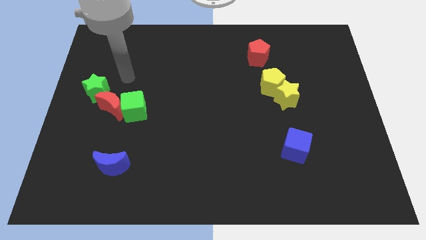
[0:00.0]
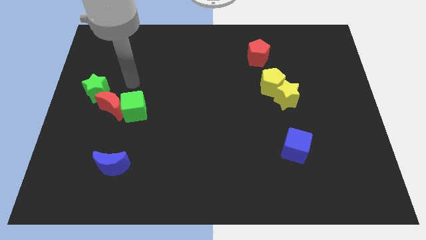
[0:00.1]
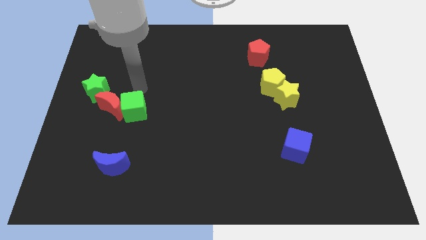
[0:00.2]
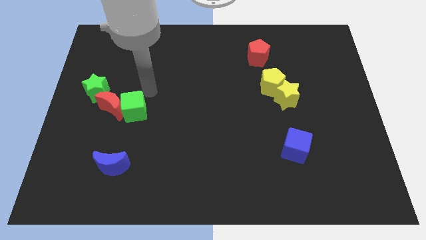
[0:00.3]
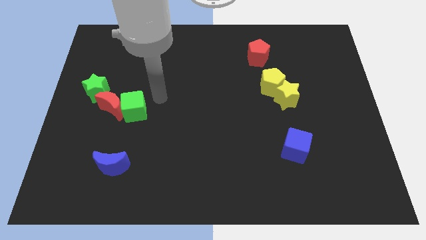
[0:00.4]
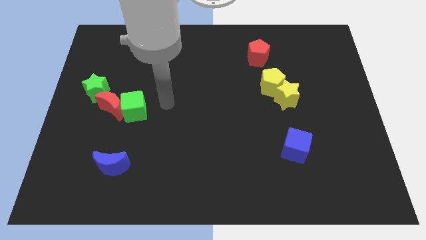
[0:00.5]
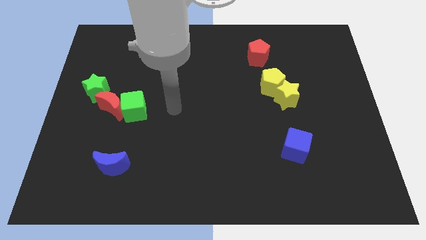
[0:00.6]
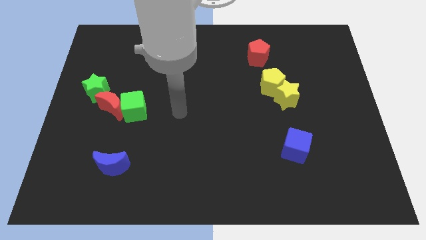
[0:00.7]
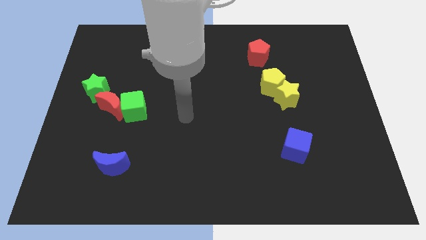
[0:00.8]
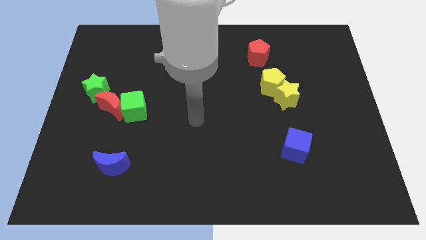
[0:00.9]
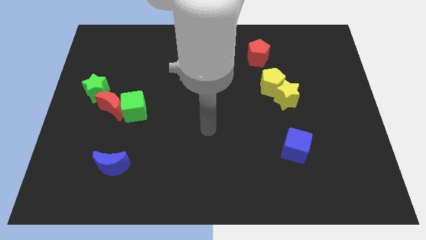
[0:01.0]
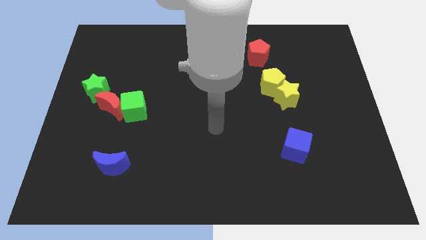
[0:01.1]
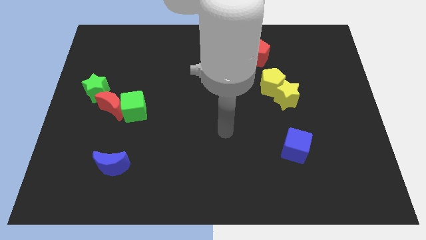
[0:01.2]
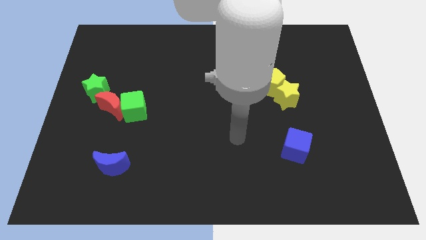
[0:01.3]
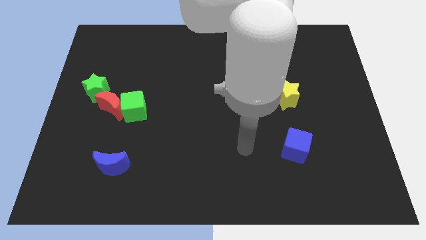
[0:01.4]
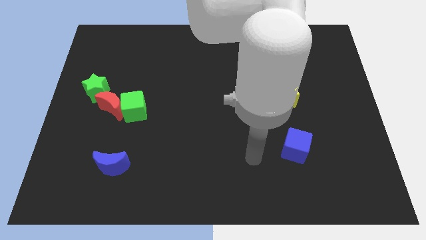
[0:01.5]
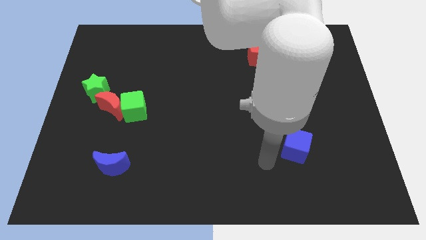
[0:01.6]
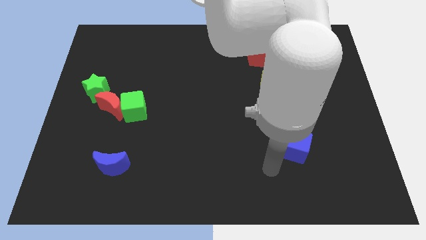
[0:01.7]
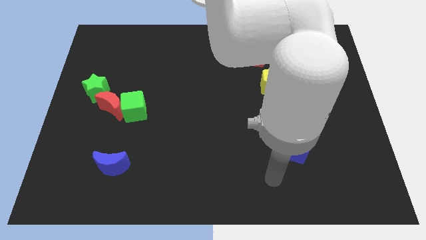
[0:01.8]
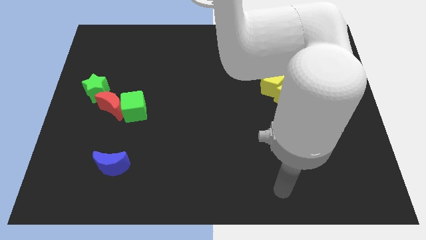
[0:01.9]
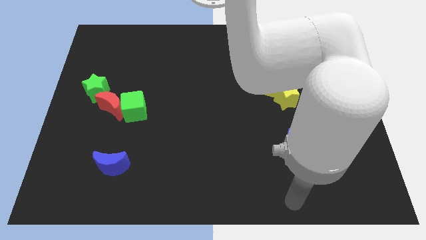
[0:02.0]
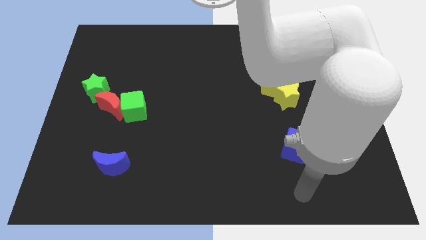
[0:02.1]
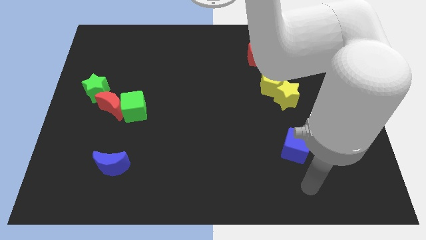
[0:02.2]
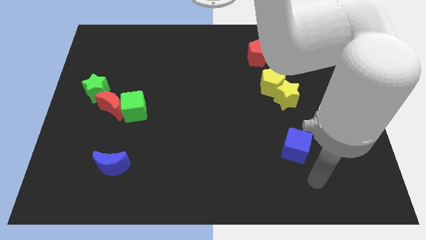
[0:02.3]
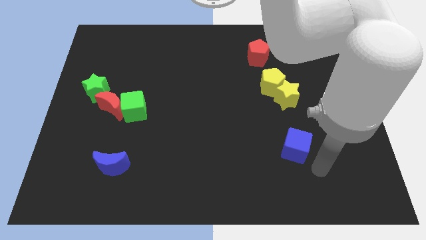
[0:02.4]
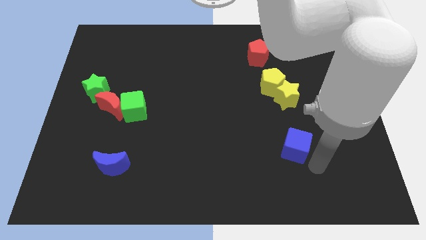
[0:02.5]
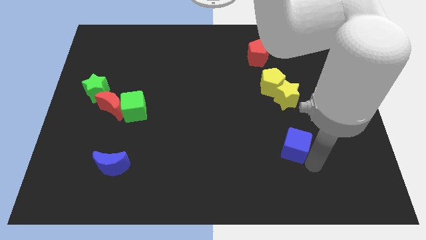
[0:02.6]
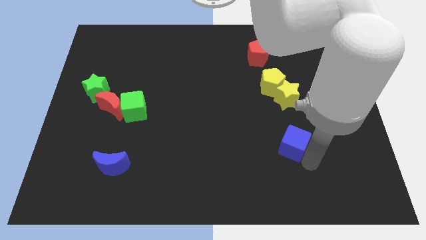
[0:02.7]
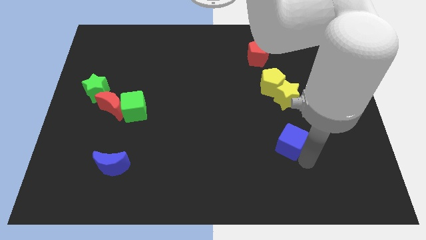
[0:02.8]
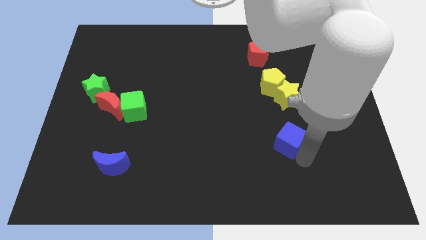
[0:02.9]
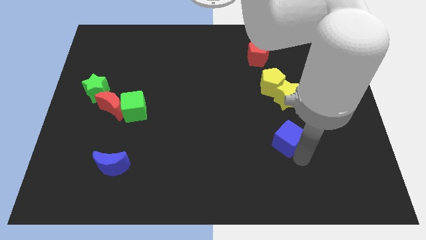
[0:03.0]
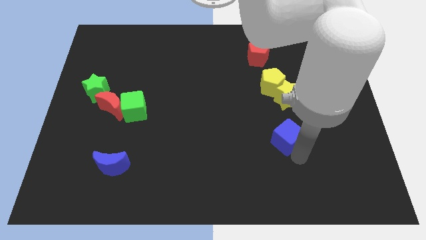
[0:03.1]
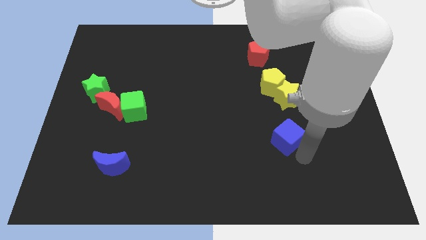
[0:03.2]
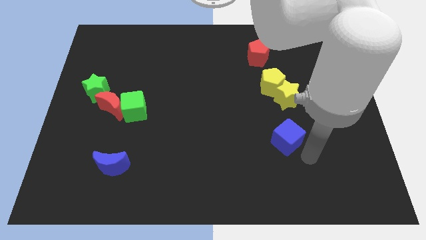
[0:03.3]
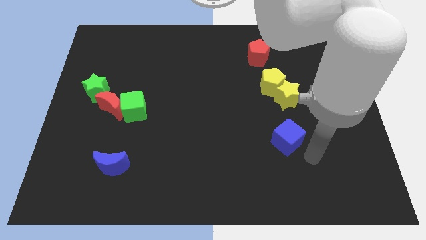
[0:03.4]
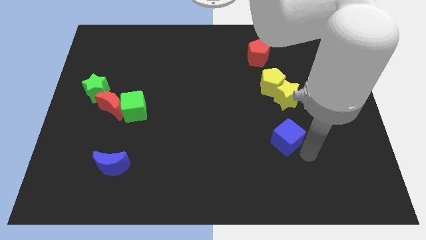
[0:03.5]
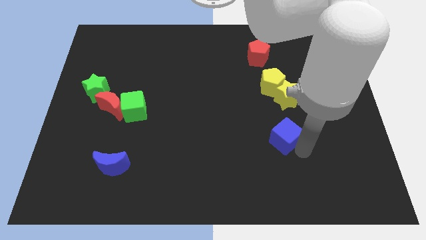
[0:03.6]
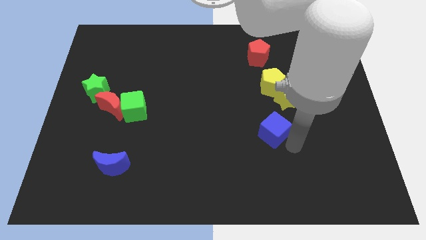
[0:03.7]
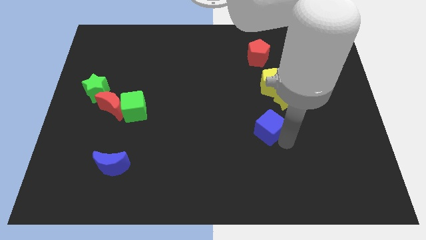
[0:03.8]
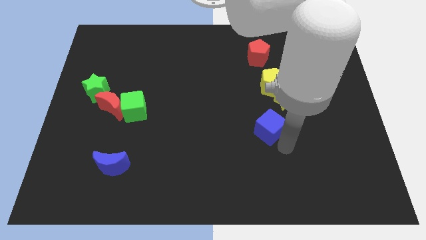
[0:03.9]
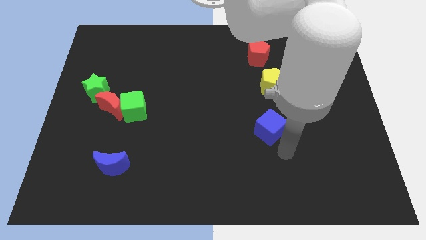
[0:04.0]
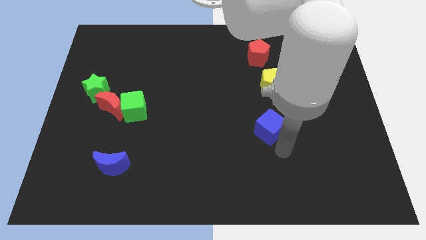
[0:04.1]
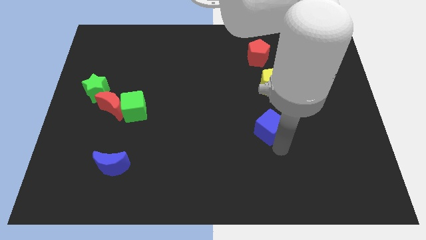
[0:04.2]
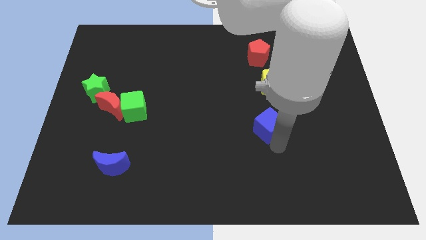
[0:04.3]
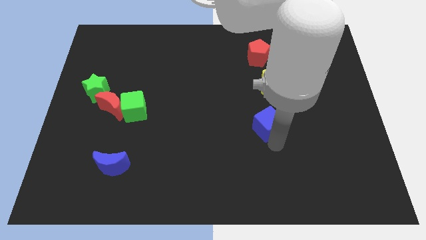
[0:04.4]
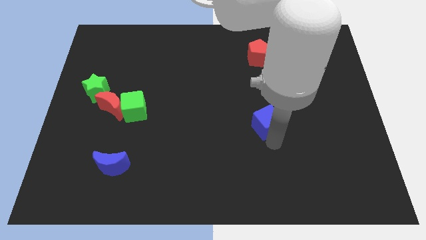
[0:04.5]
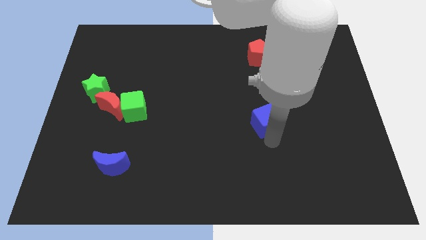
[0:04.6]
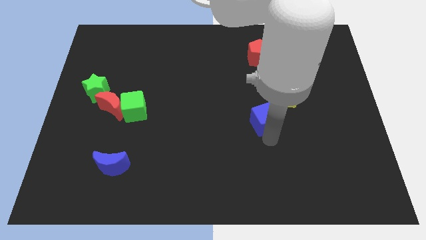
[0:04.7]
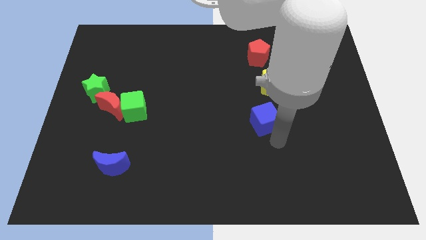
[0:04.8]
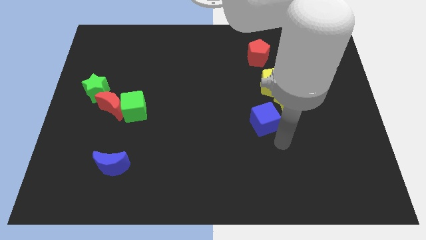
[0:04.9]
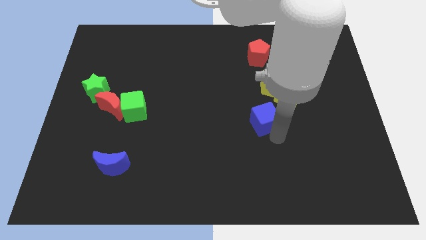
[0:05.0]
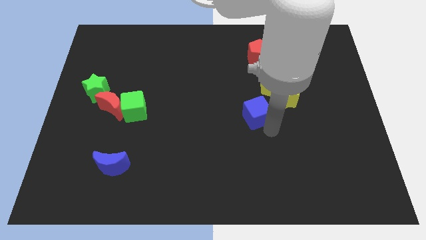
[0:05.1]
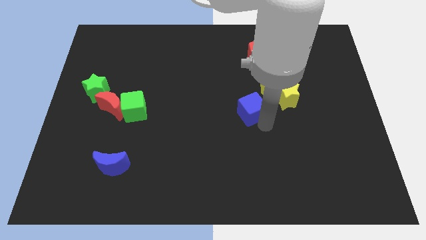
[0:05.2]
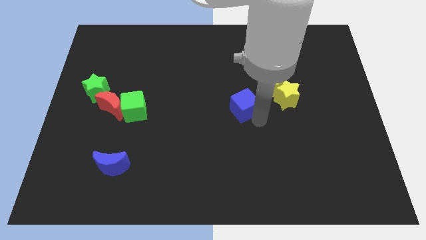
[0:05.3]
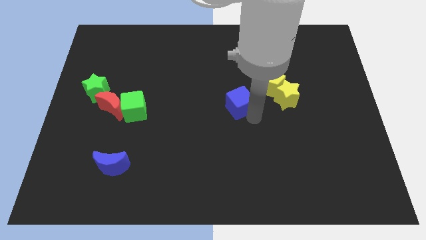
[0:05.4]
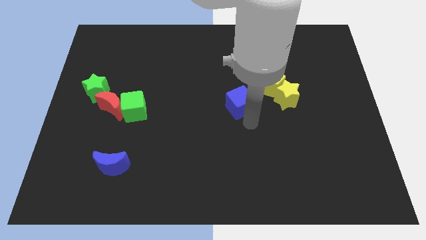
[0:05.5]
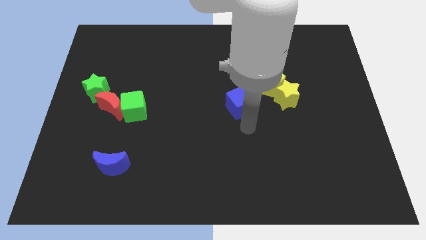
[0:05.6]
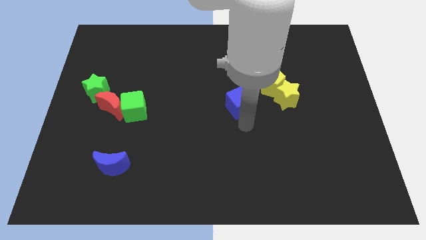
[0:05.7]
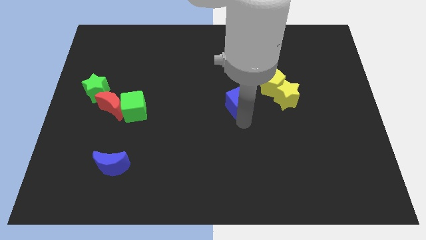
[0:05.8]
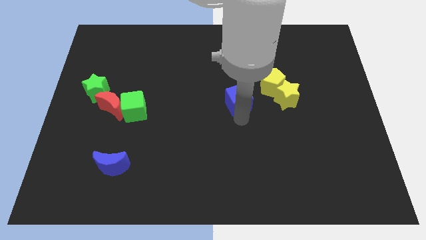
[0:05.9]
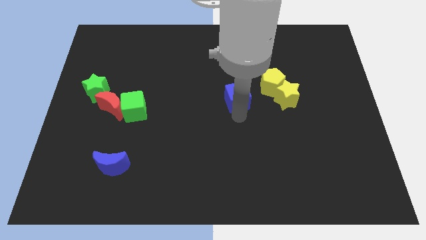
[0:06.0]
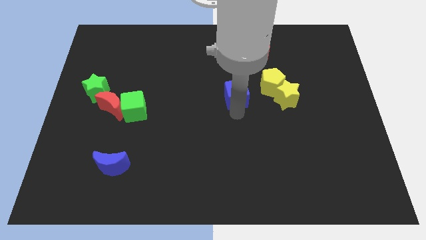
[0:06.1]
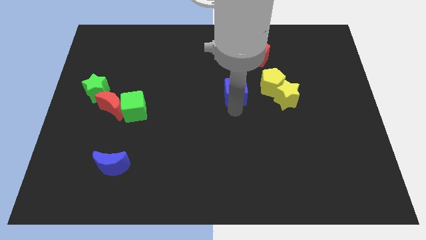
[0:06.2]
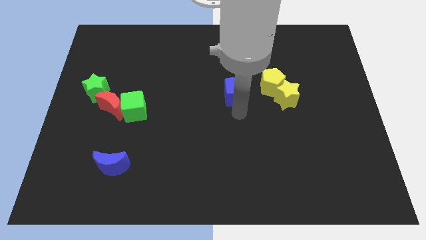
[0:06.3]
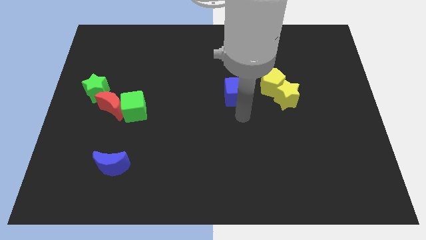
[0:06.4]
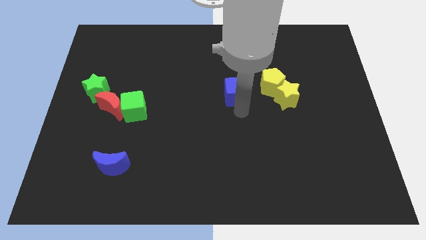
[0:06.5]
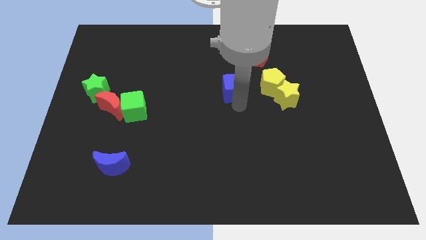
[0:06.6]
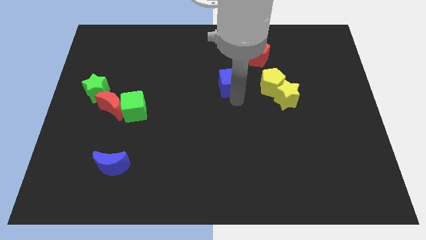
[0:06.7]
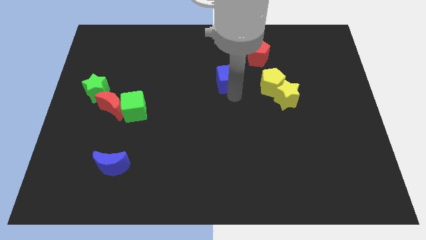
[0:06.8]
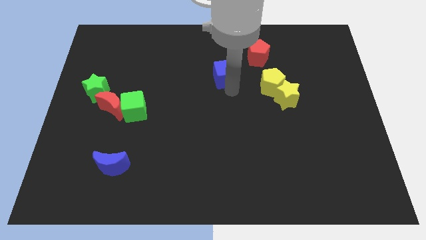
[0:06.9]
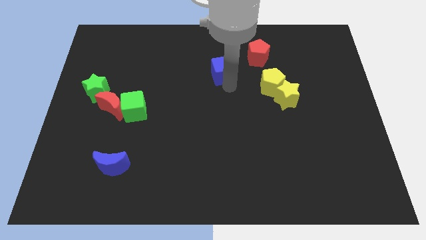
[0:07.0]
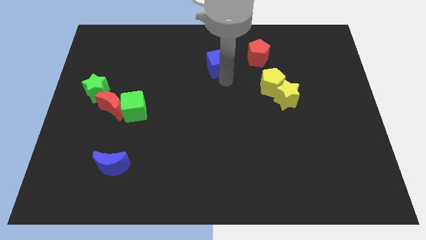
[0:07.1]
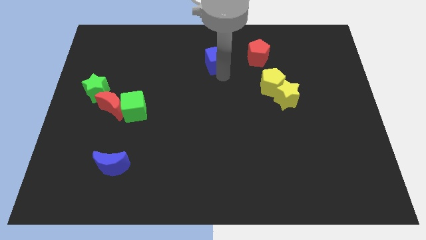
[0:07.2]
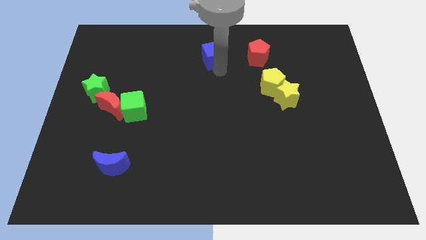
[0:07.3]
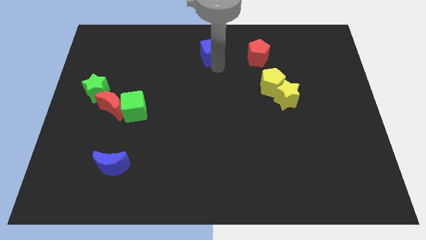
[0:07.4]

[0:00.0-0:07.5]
slide the blue cube to the top
